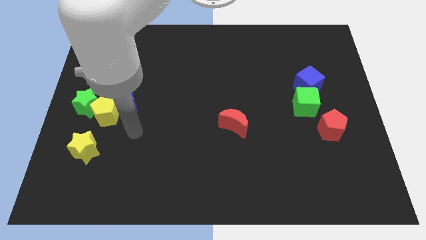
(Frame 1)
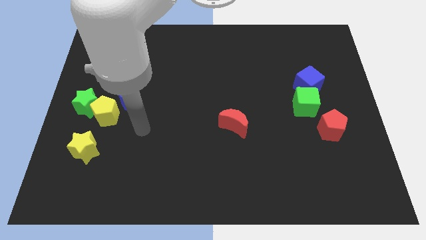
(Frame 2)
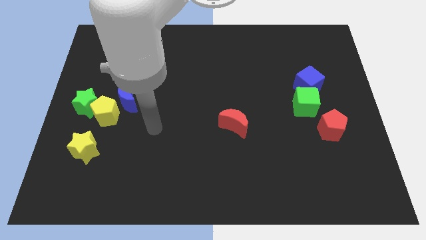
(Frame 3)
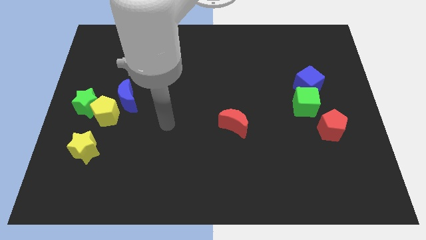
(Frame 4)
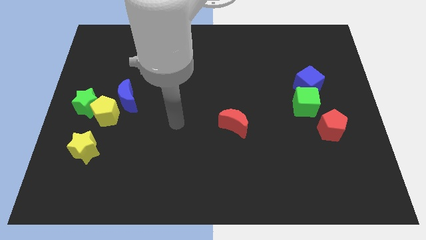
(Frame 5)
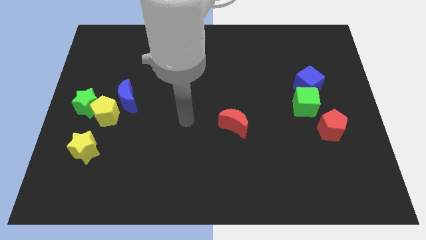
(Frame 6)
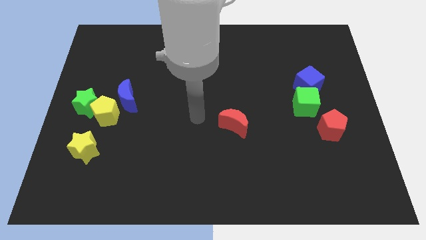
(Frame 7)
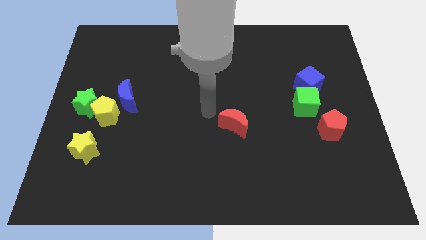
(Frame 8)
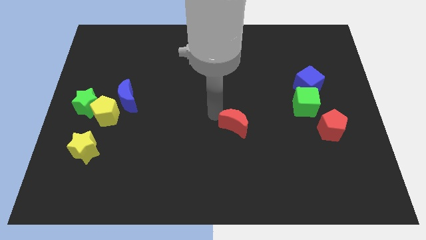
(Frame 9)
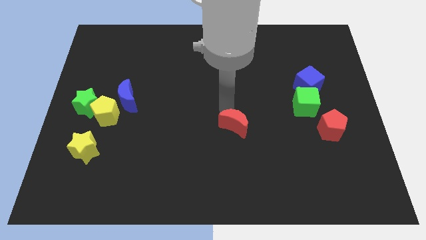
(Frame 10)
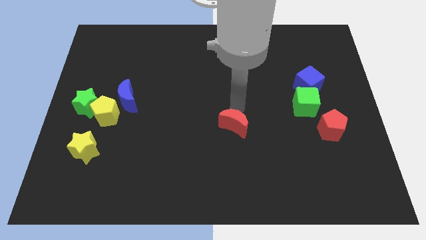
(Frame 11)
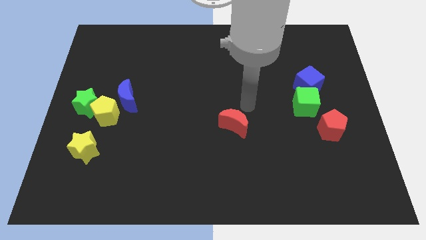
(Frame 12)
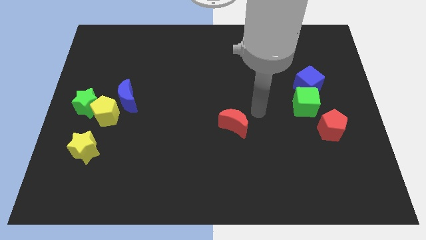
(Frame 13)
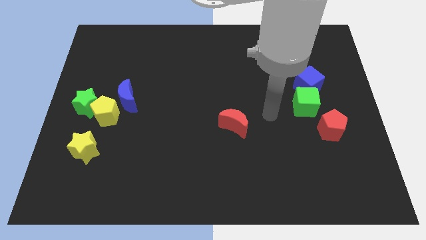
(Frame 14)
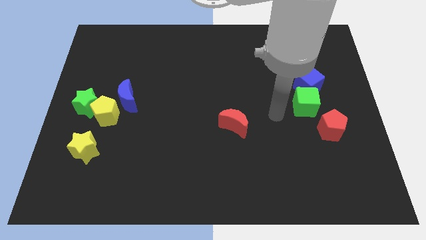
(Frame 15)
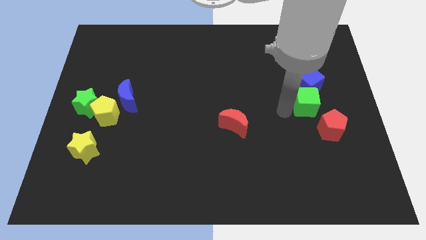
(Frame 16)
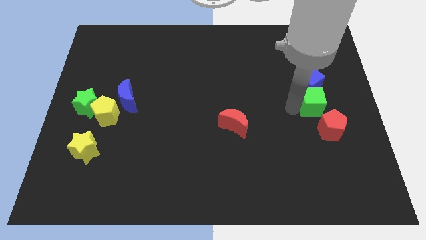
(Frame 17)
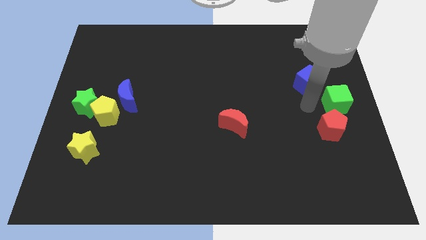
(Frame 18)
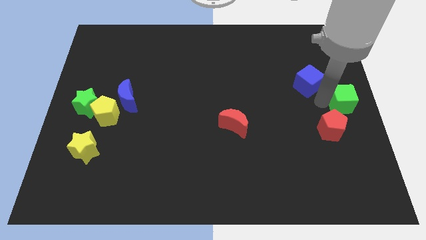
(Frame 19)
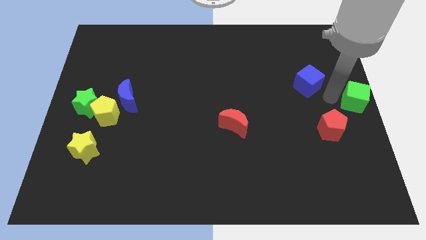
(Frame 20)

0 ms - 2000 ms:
pull the blue cube apart from the green cube

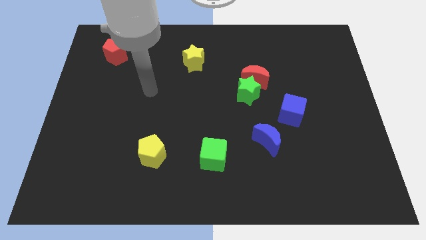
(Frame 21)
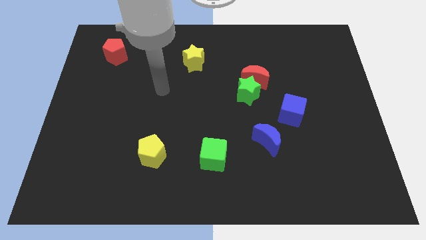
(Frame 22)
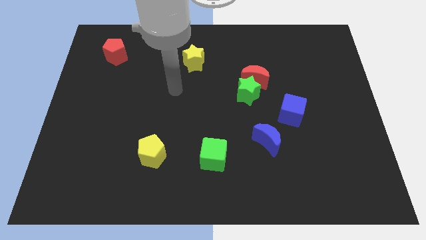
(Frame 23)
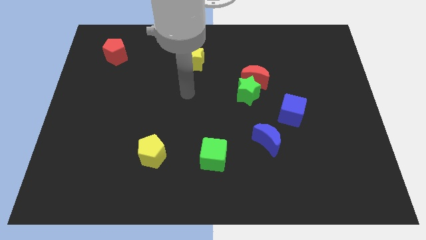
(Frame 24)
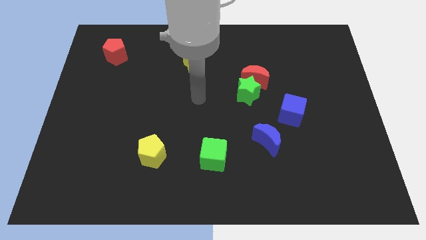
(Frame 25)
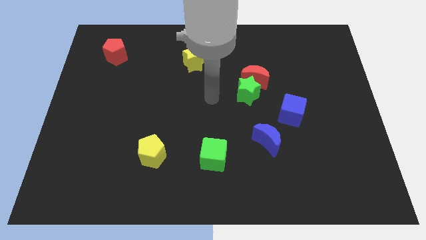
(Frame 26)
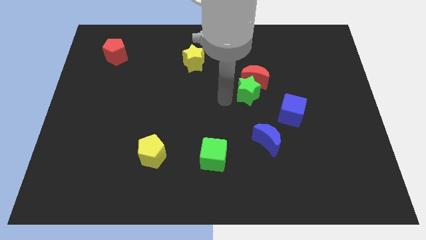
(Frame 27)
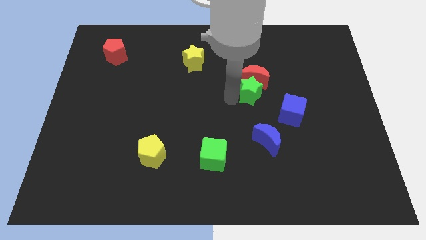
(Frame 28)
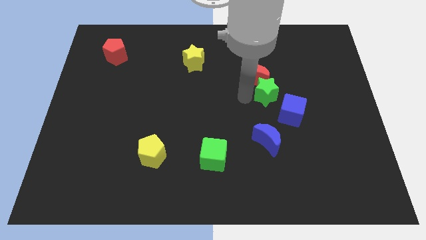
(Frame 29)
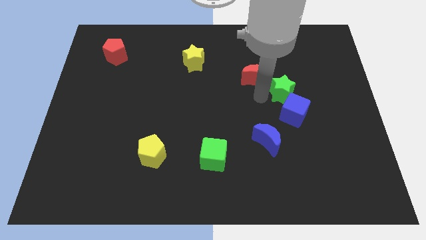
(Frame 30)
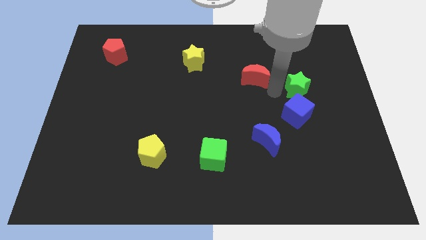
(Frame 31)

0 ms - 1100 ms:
move the red moon away from the green star

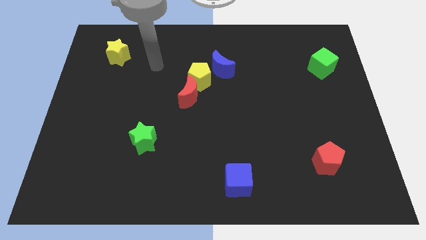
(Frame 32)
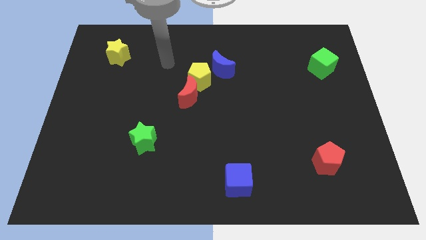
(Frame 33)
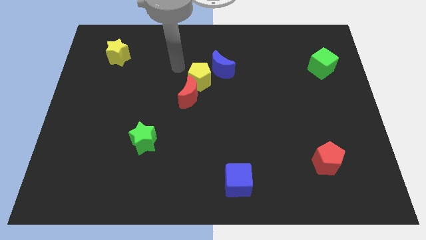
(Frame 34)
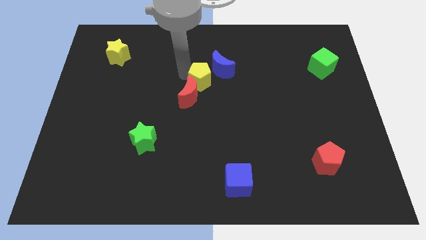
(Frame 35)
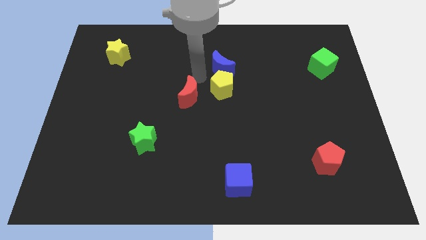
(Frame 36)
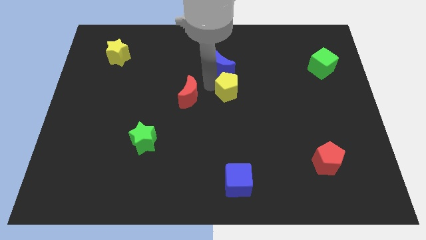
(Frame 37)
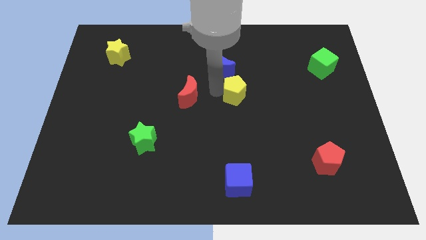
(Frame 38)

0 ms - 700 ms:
move the red moon away from the yellow pentagon

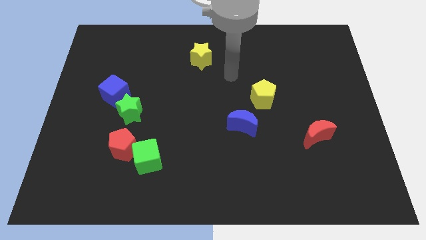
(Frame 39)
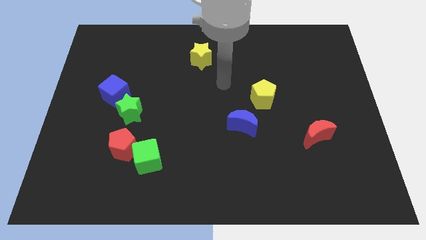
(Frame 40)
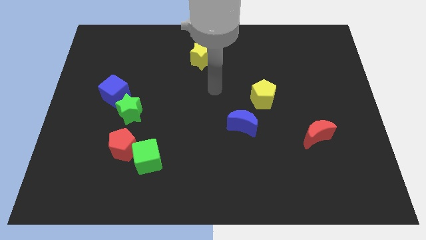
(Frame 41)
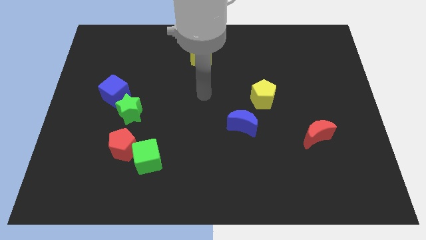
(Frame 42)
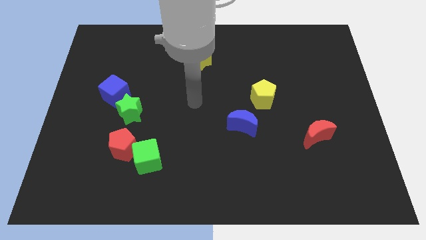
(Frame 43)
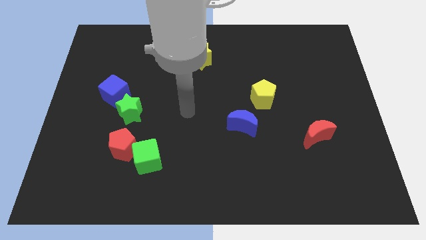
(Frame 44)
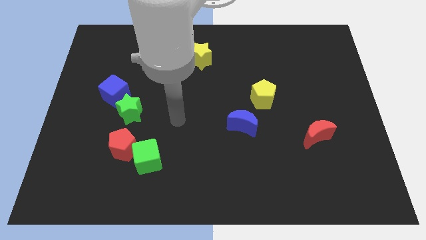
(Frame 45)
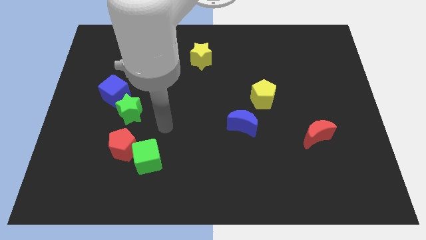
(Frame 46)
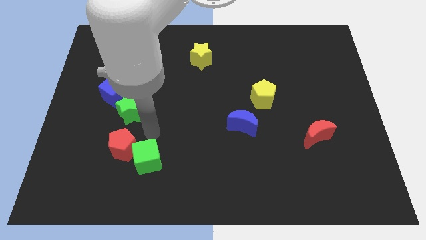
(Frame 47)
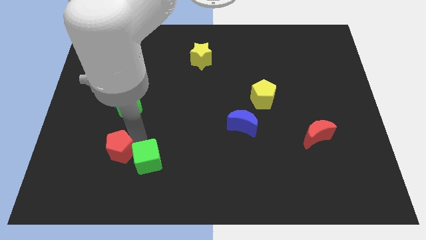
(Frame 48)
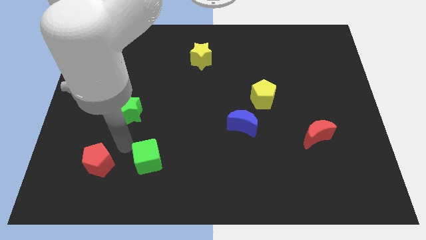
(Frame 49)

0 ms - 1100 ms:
pull the green cube apart from the red pentagon

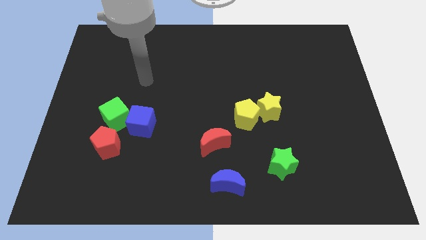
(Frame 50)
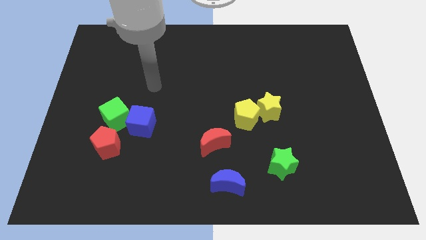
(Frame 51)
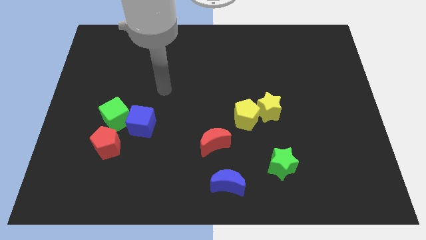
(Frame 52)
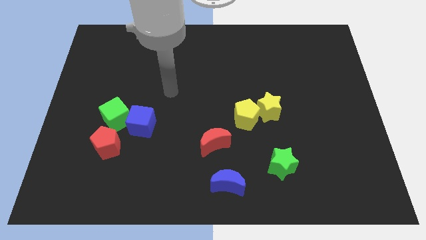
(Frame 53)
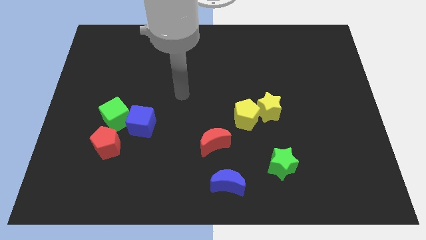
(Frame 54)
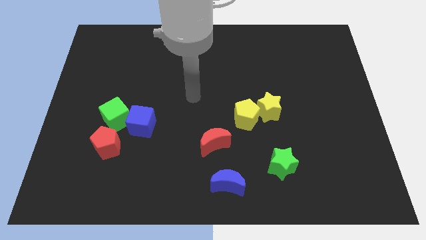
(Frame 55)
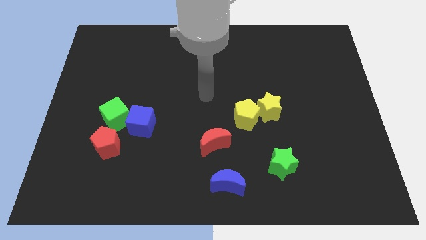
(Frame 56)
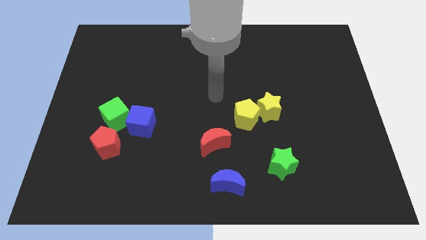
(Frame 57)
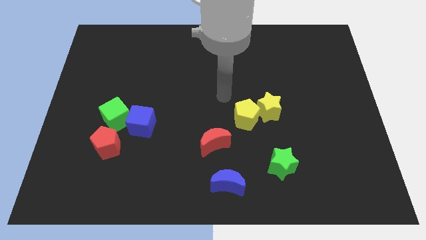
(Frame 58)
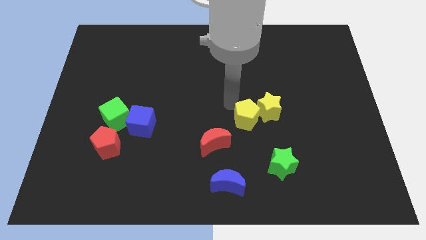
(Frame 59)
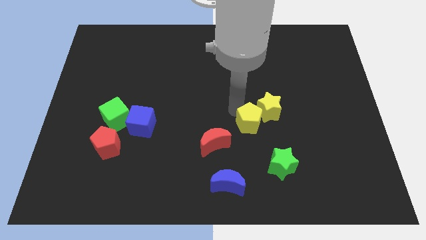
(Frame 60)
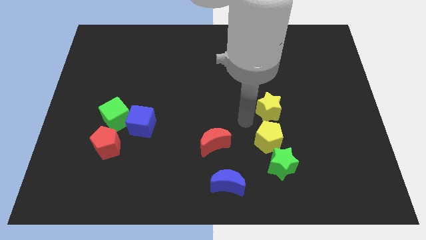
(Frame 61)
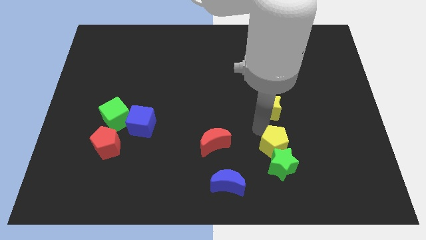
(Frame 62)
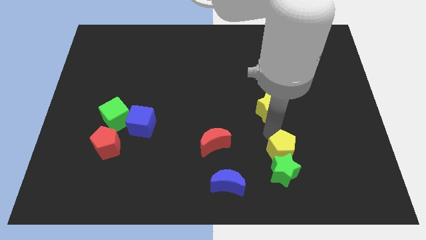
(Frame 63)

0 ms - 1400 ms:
move the yellow star away from the yellow pentagon

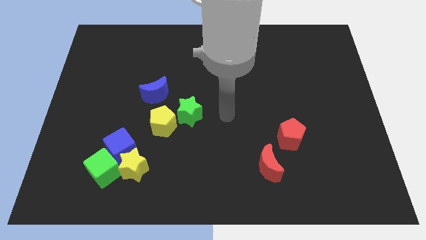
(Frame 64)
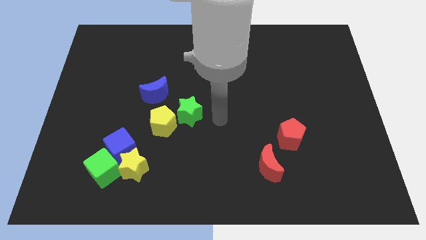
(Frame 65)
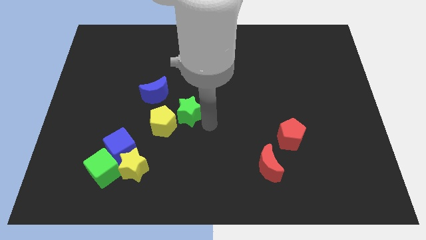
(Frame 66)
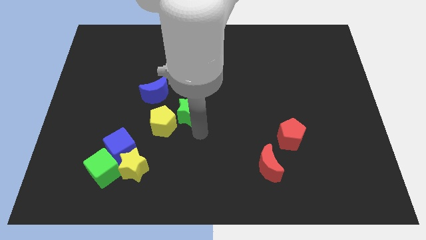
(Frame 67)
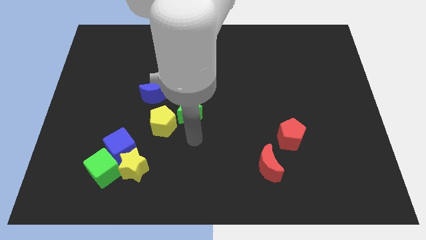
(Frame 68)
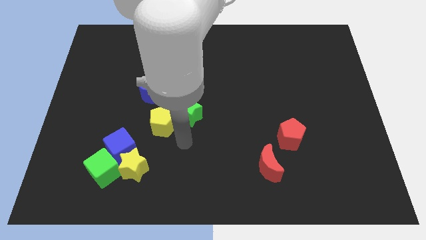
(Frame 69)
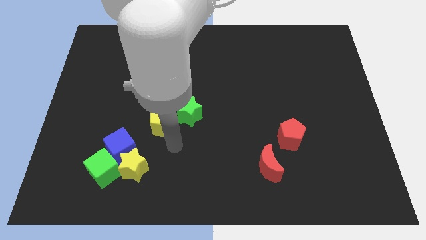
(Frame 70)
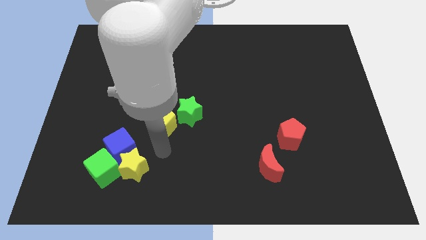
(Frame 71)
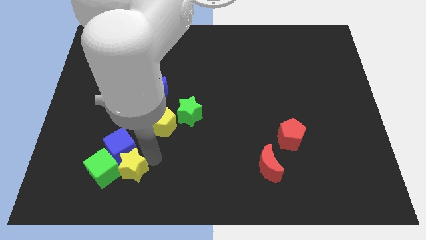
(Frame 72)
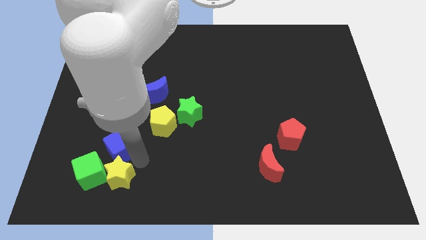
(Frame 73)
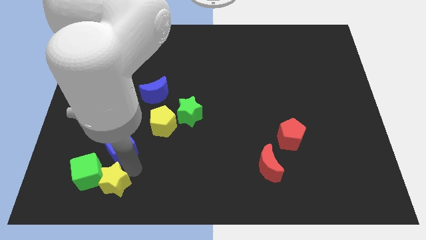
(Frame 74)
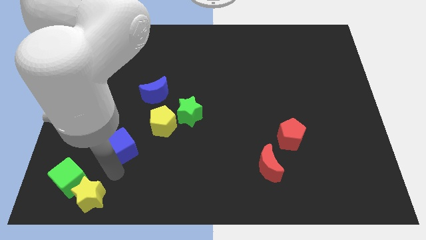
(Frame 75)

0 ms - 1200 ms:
separate the blue cube from the yellow star and green cube

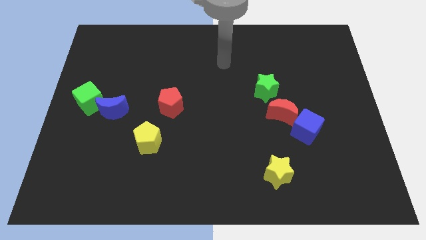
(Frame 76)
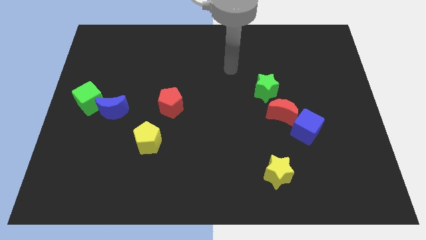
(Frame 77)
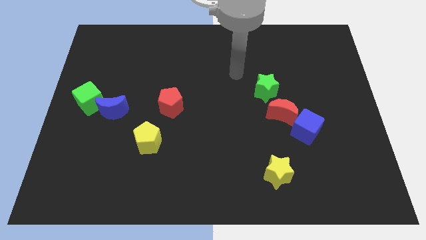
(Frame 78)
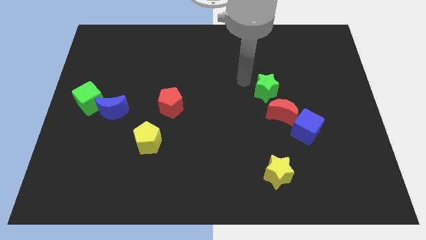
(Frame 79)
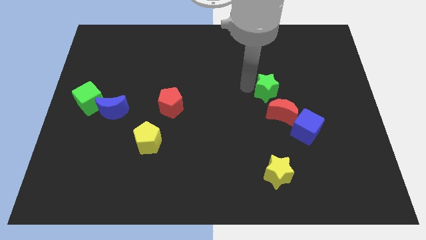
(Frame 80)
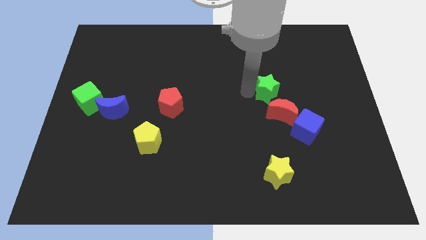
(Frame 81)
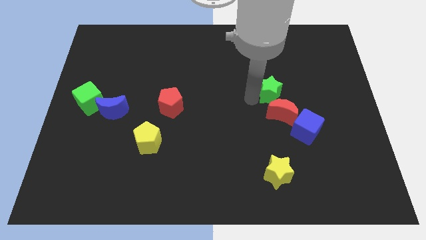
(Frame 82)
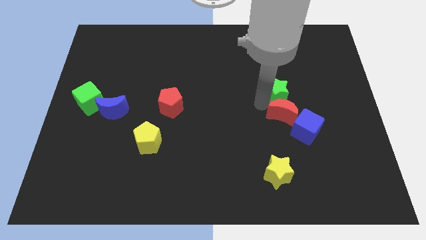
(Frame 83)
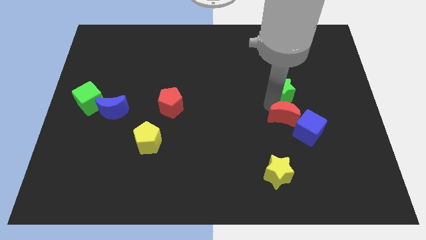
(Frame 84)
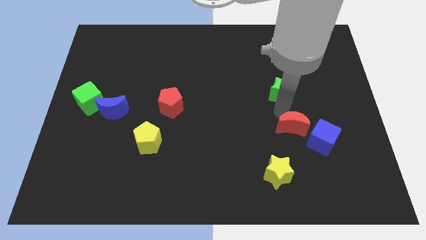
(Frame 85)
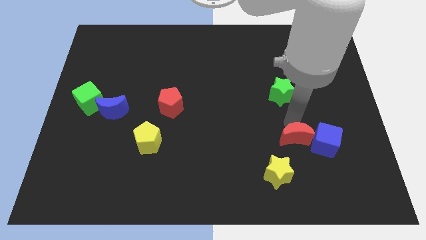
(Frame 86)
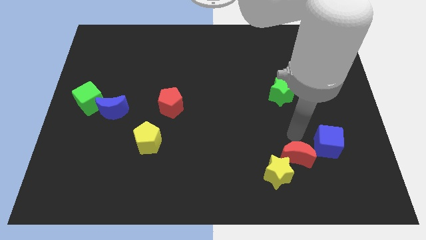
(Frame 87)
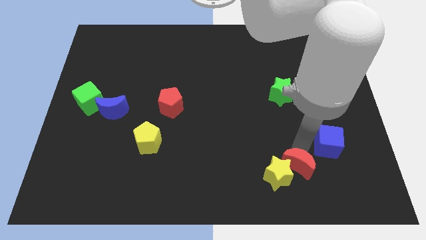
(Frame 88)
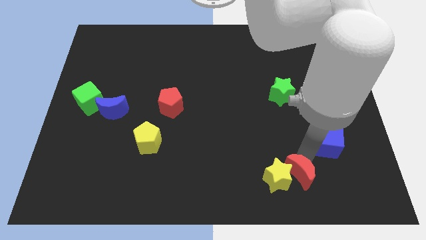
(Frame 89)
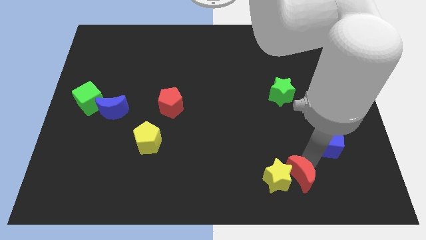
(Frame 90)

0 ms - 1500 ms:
pull the blue cube apart from the red moon
